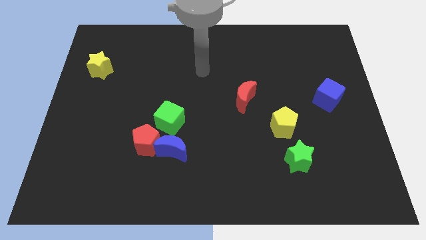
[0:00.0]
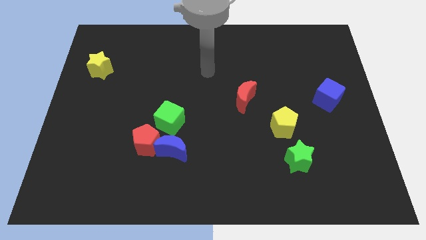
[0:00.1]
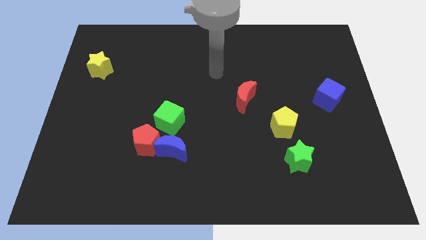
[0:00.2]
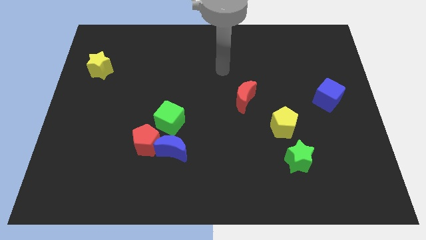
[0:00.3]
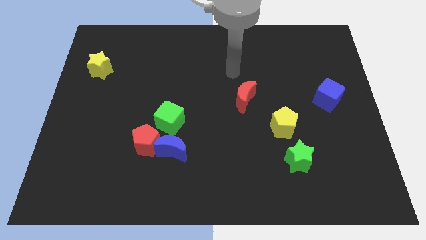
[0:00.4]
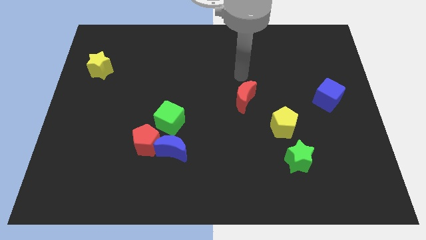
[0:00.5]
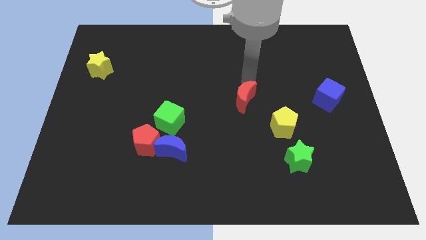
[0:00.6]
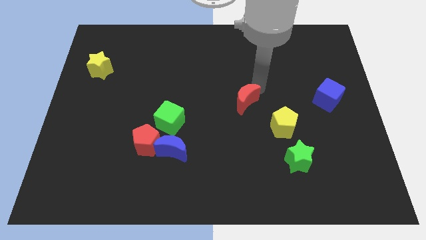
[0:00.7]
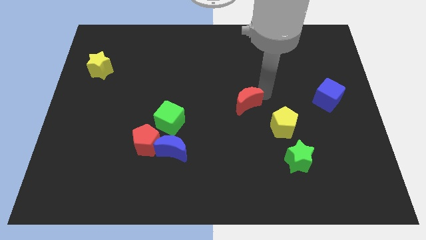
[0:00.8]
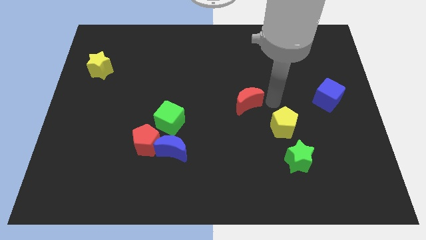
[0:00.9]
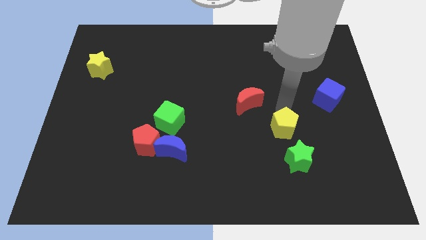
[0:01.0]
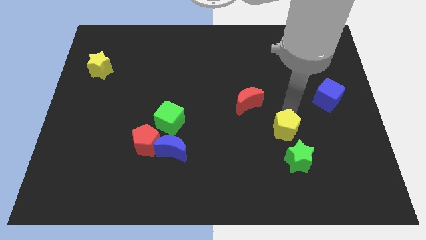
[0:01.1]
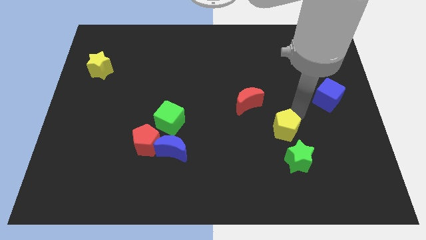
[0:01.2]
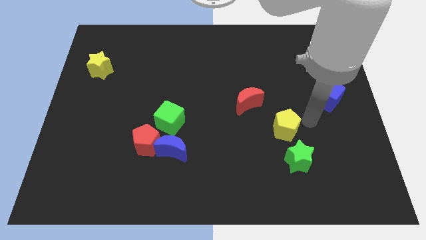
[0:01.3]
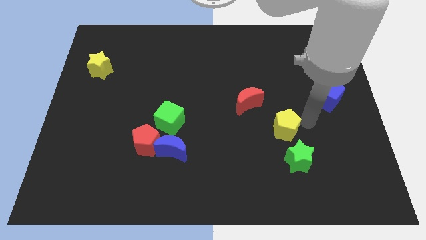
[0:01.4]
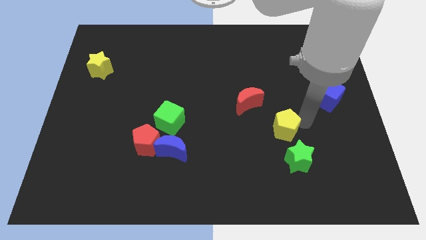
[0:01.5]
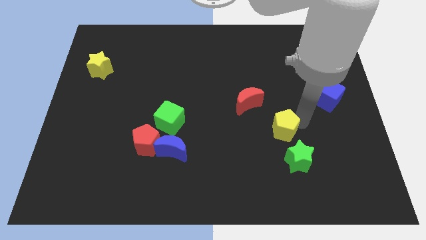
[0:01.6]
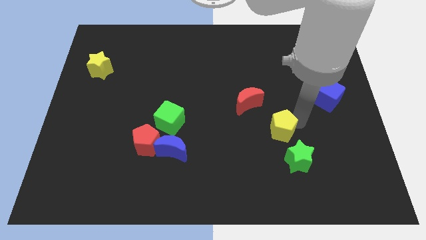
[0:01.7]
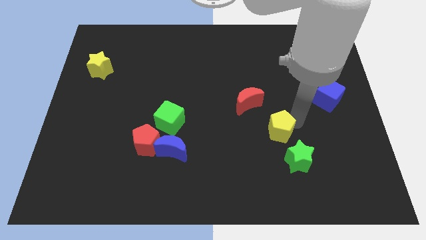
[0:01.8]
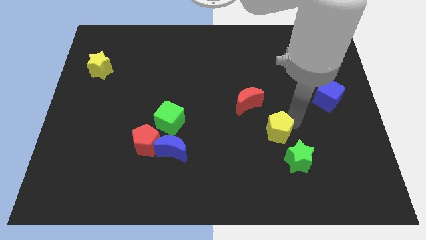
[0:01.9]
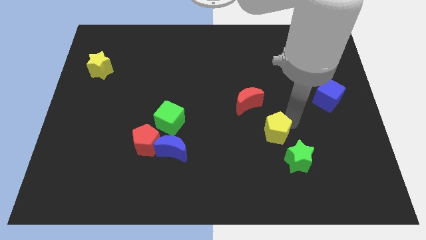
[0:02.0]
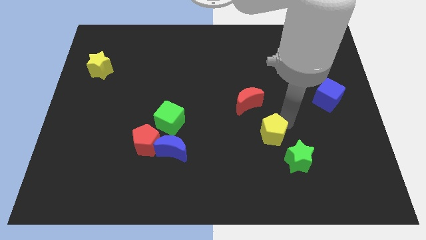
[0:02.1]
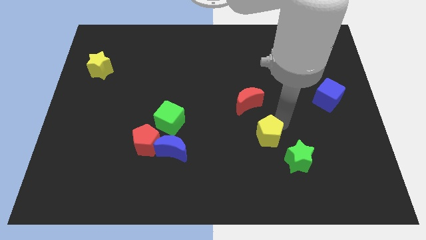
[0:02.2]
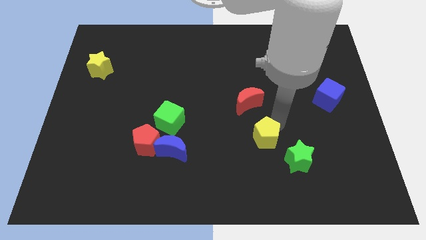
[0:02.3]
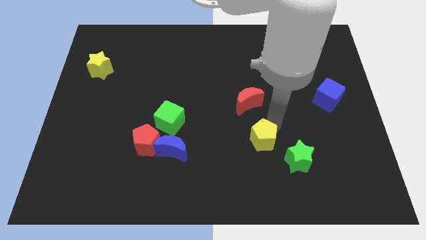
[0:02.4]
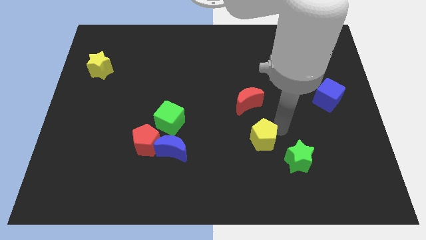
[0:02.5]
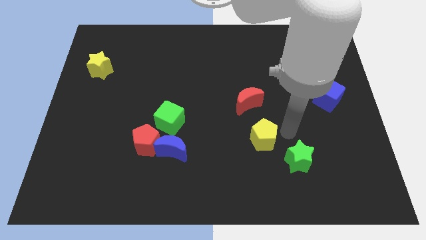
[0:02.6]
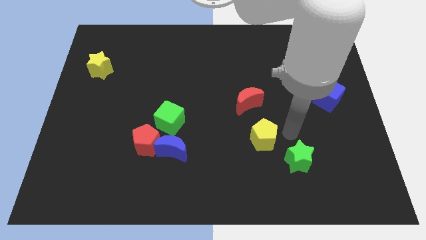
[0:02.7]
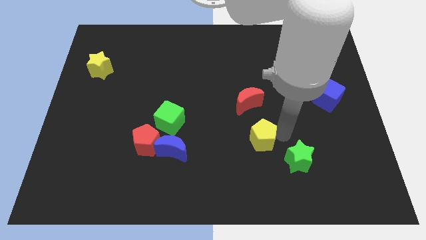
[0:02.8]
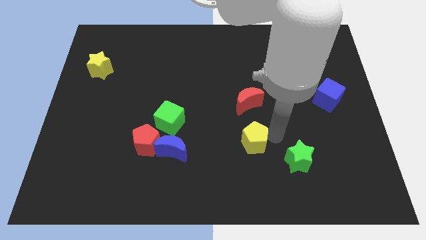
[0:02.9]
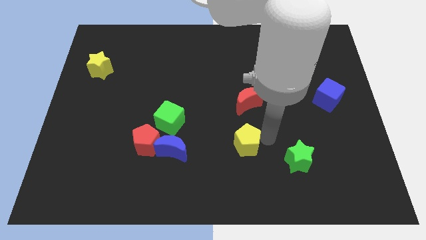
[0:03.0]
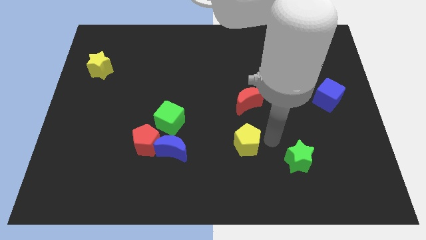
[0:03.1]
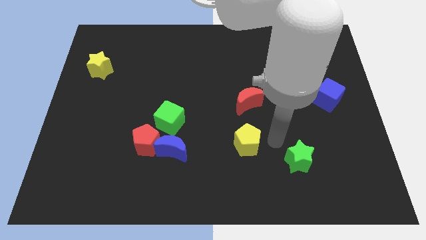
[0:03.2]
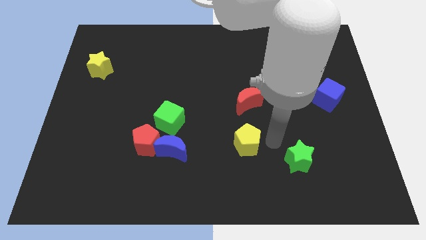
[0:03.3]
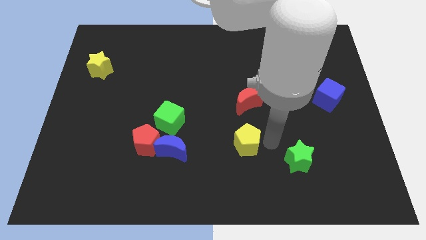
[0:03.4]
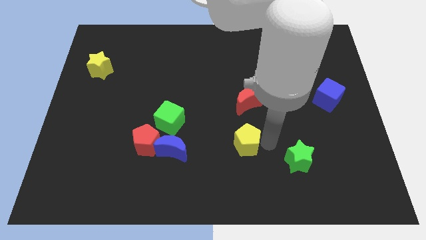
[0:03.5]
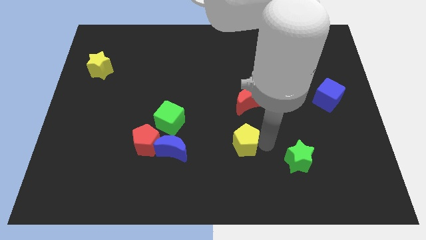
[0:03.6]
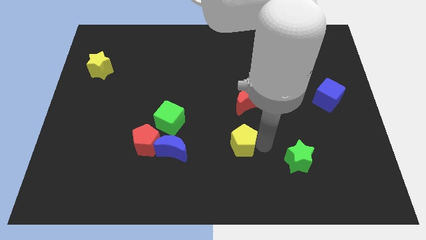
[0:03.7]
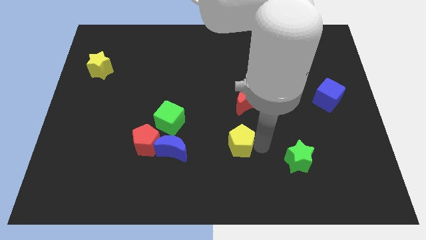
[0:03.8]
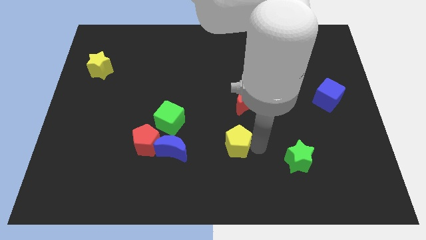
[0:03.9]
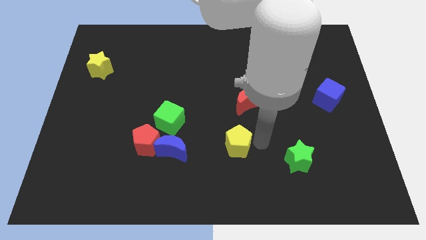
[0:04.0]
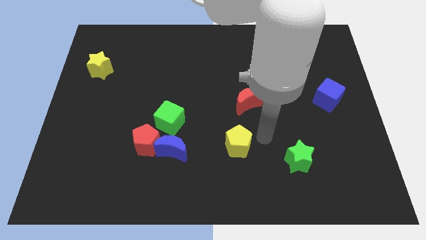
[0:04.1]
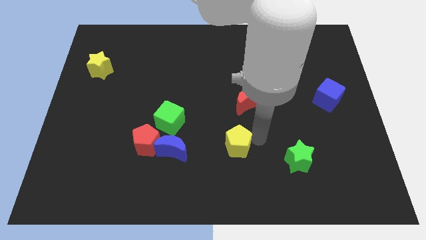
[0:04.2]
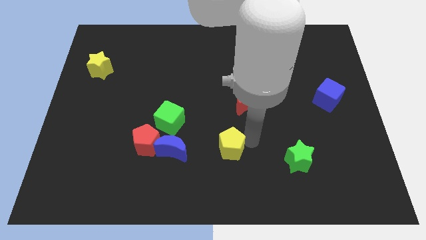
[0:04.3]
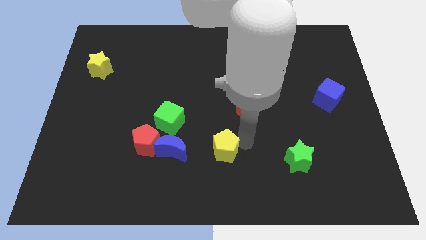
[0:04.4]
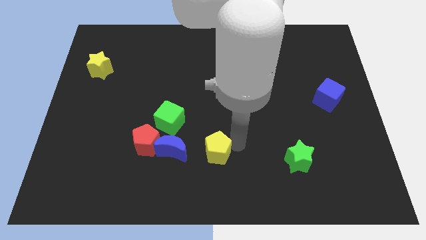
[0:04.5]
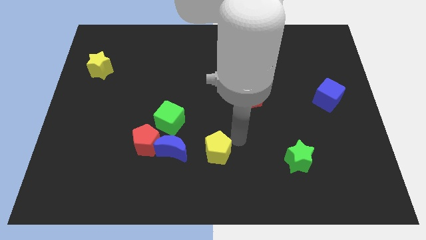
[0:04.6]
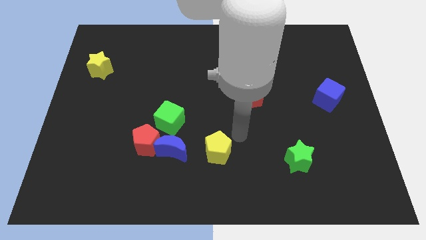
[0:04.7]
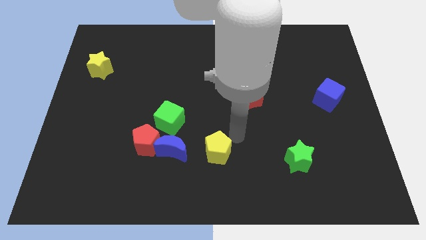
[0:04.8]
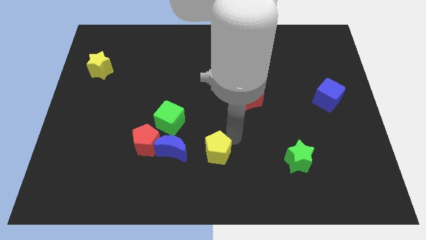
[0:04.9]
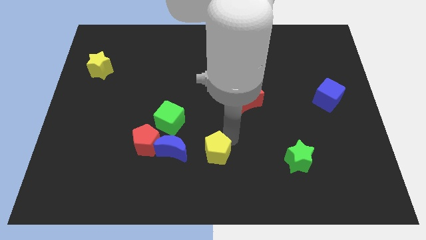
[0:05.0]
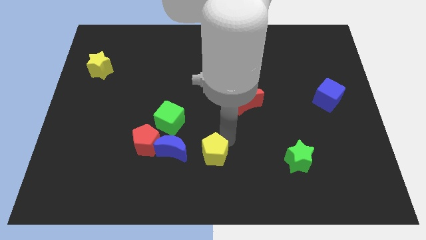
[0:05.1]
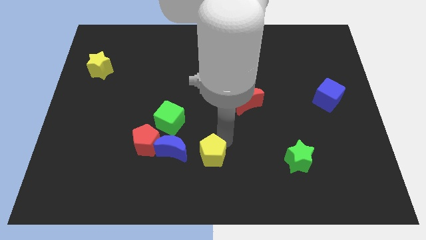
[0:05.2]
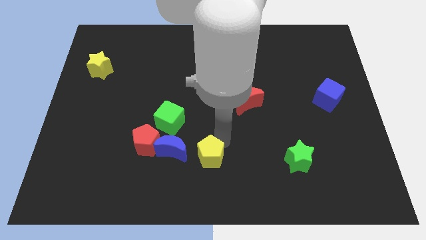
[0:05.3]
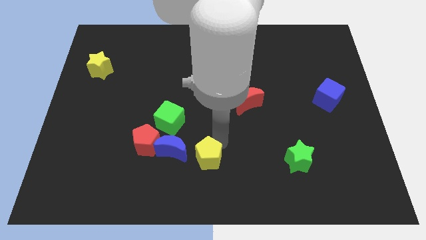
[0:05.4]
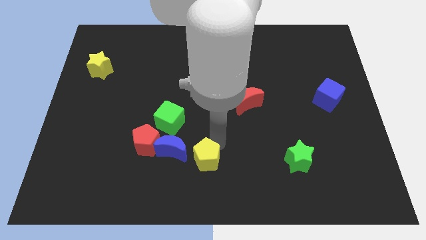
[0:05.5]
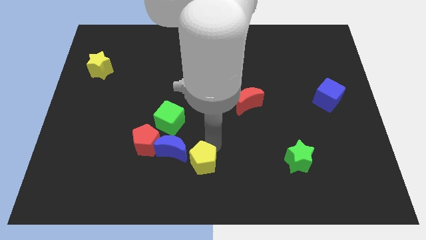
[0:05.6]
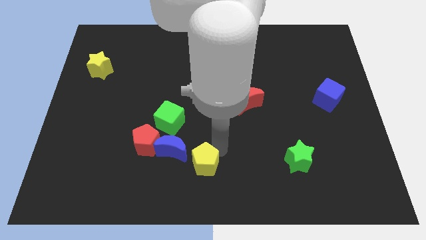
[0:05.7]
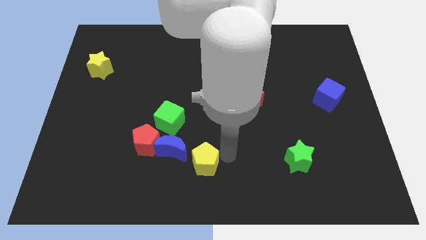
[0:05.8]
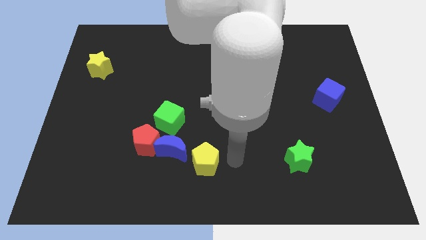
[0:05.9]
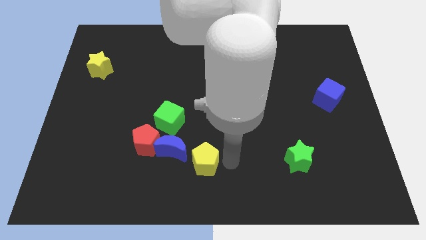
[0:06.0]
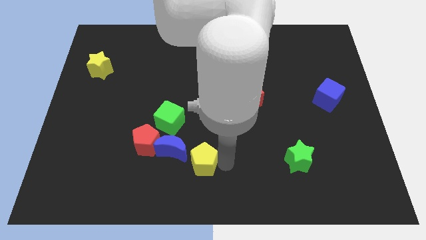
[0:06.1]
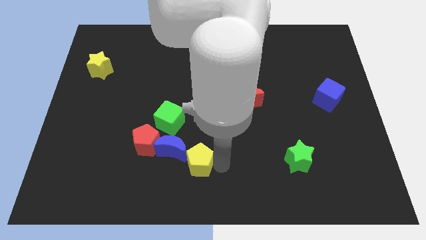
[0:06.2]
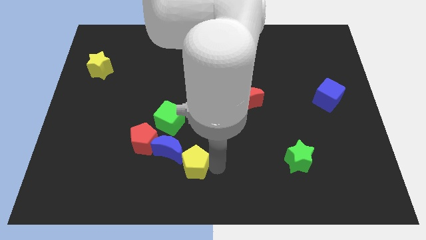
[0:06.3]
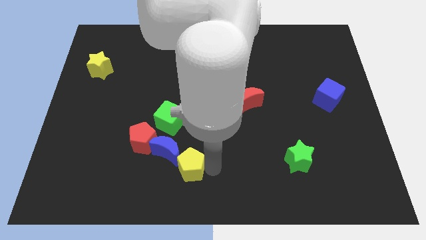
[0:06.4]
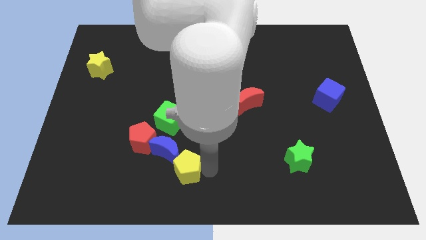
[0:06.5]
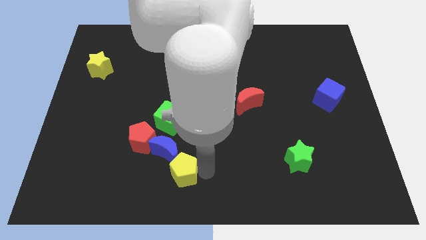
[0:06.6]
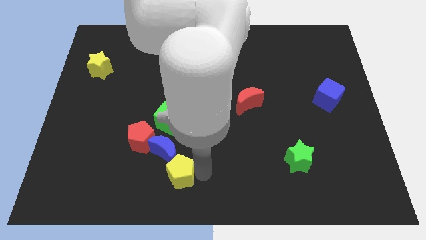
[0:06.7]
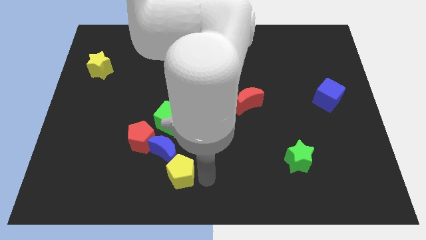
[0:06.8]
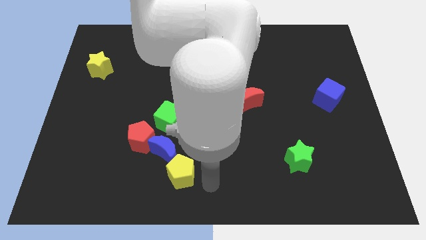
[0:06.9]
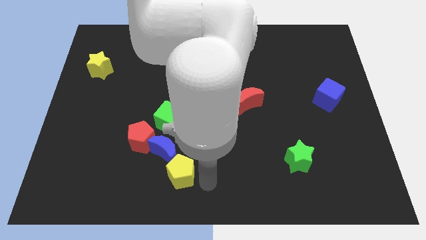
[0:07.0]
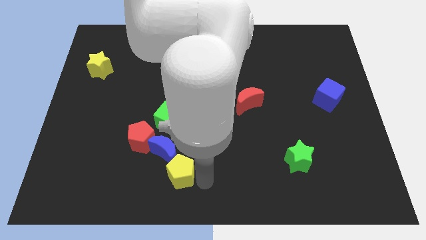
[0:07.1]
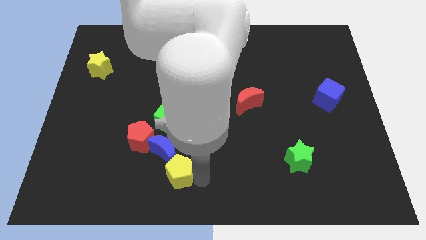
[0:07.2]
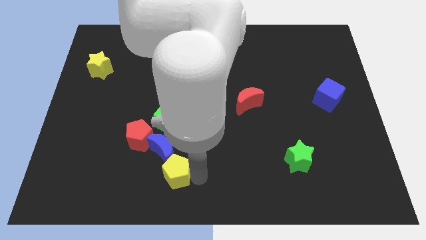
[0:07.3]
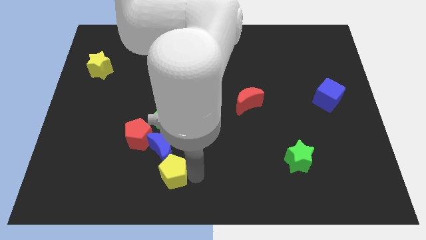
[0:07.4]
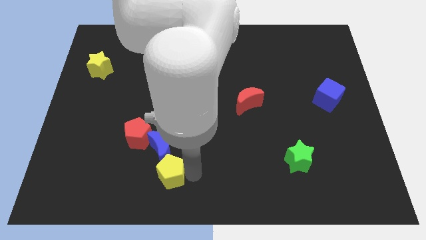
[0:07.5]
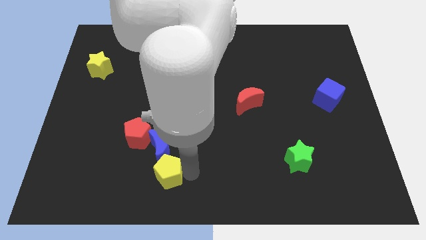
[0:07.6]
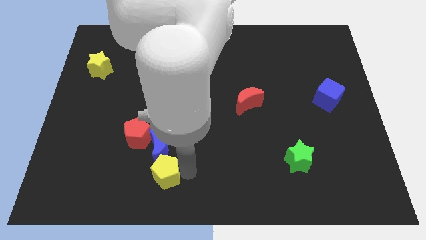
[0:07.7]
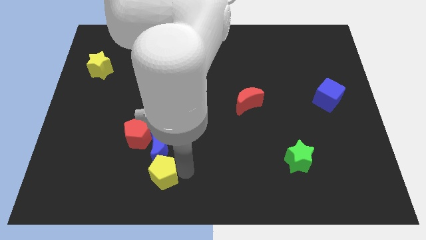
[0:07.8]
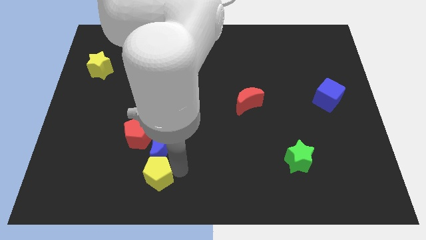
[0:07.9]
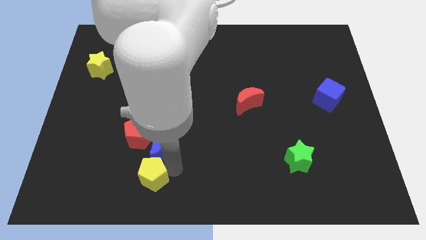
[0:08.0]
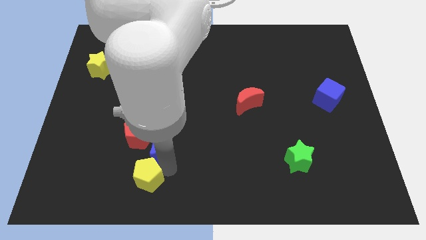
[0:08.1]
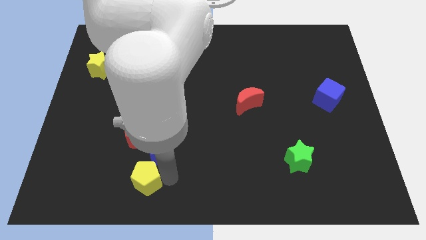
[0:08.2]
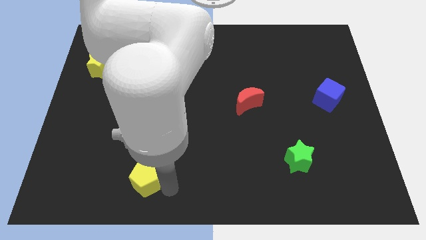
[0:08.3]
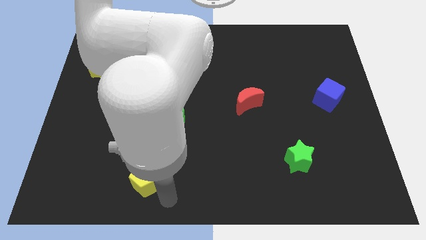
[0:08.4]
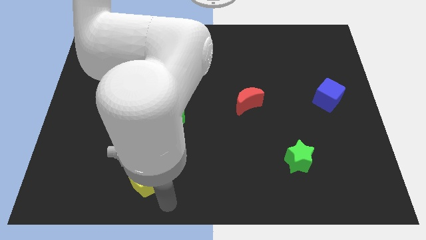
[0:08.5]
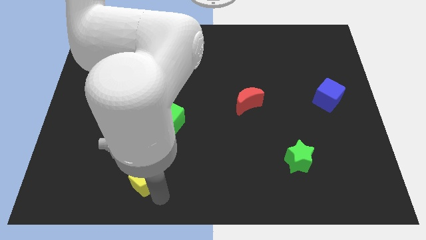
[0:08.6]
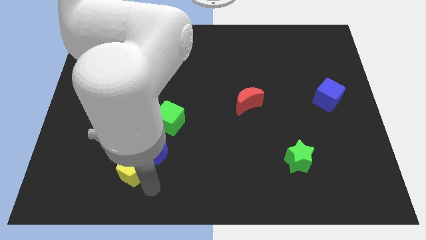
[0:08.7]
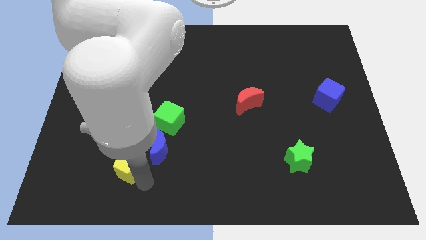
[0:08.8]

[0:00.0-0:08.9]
push the yellow pentagon left of the blue moon
